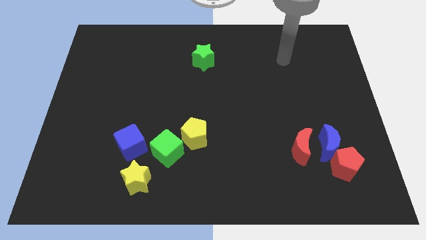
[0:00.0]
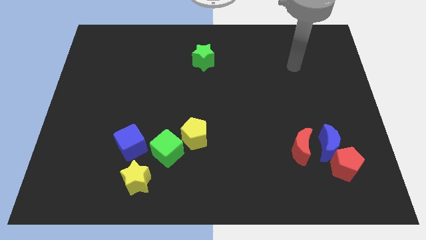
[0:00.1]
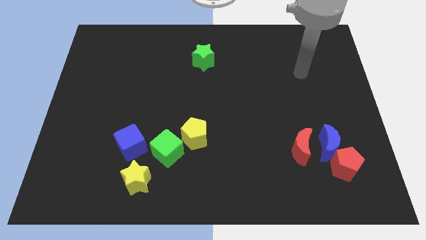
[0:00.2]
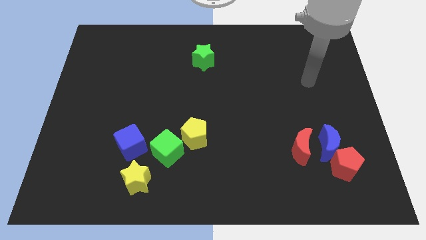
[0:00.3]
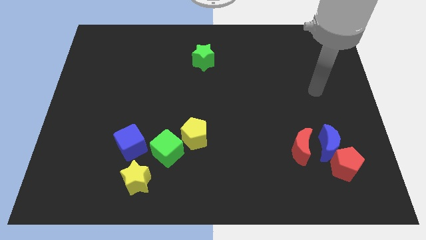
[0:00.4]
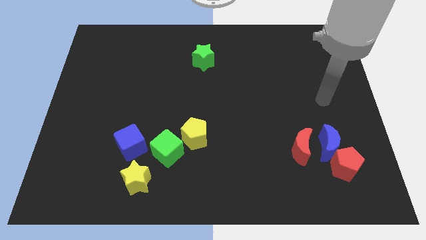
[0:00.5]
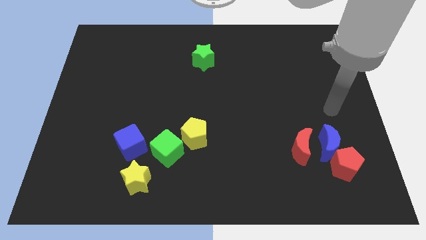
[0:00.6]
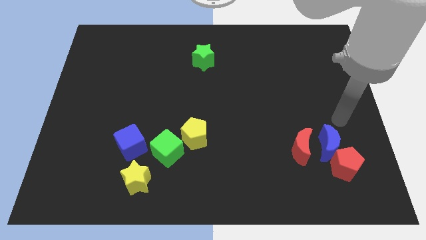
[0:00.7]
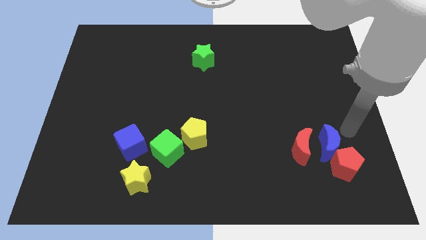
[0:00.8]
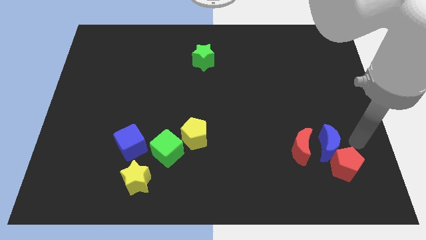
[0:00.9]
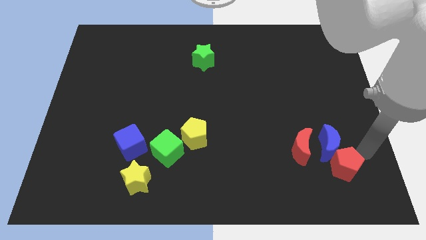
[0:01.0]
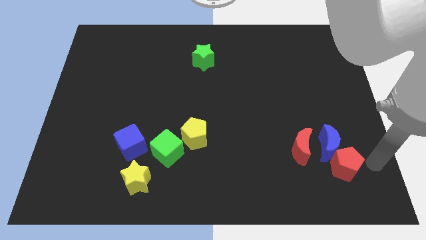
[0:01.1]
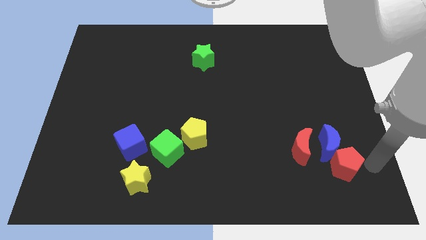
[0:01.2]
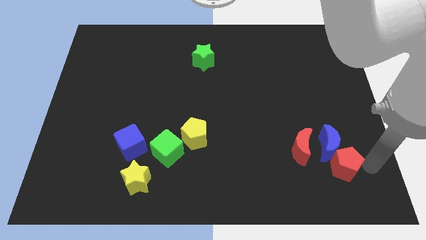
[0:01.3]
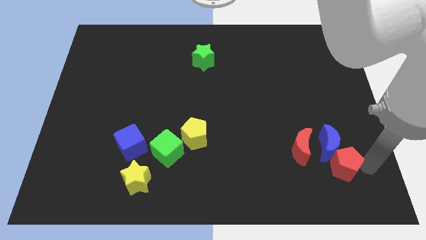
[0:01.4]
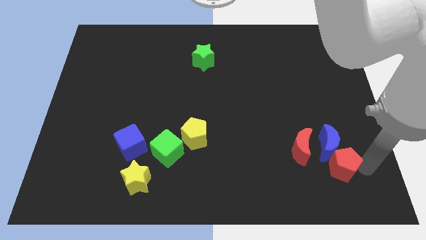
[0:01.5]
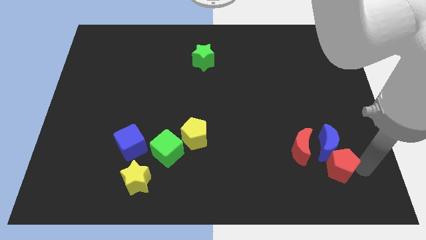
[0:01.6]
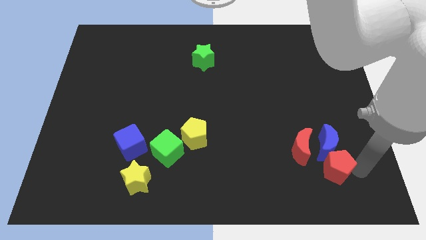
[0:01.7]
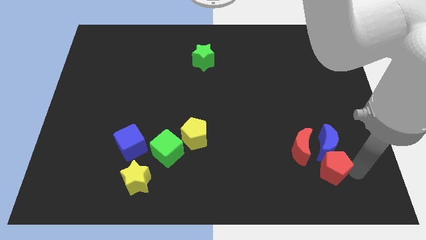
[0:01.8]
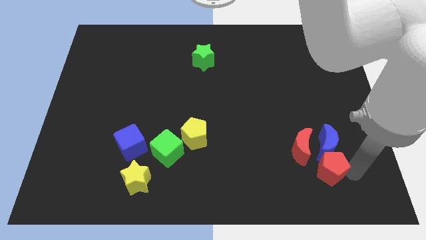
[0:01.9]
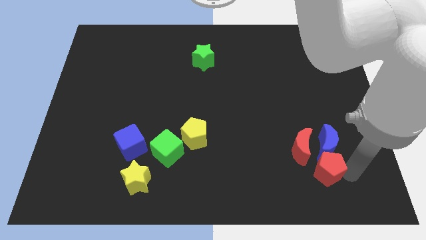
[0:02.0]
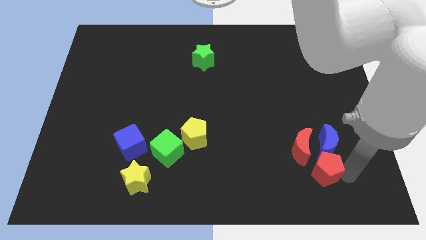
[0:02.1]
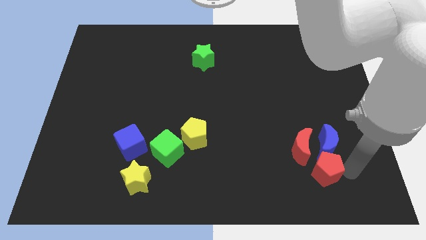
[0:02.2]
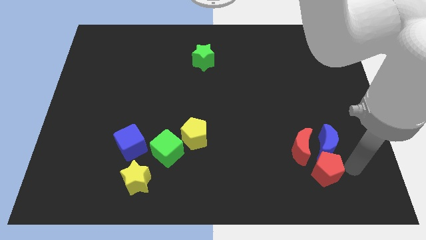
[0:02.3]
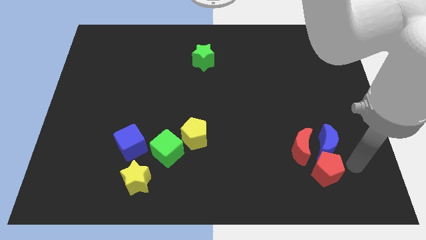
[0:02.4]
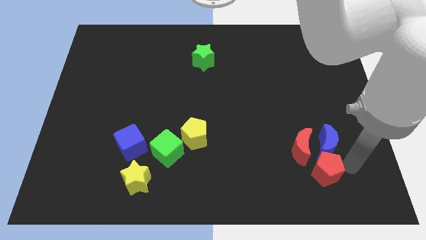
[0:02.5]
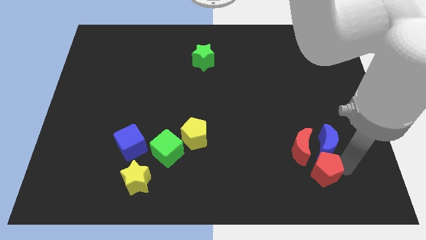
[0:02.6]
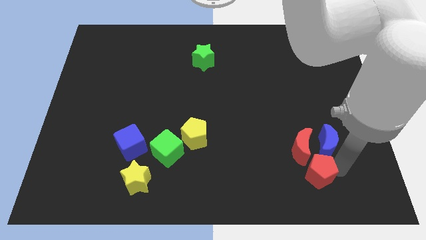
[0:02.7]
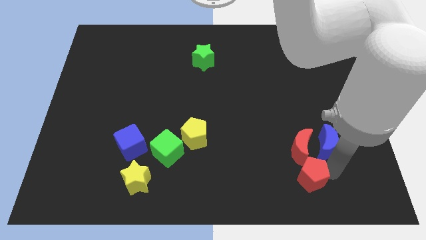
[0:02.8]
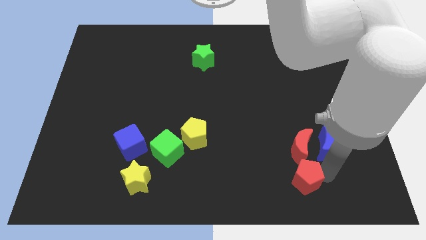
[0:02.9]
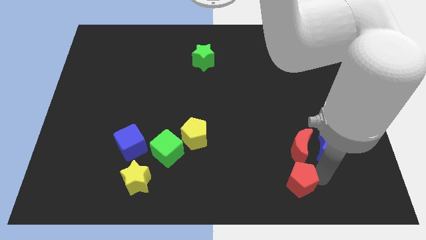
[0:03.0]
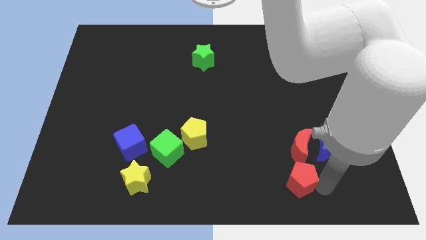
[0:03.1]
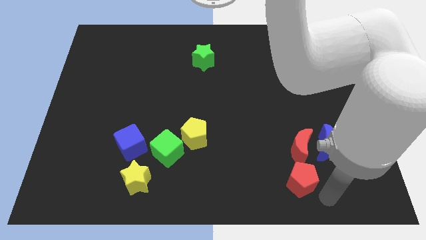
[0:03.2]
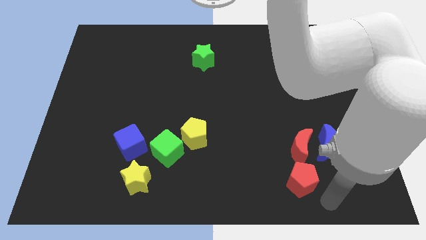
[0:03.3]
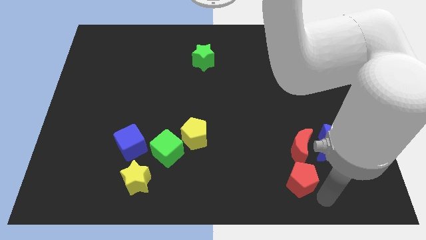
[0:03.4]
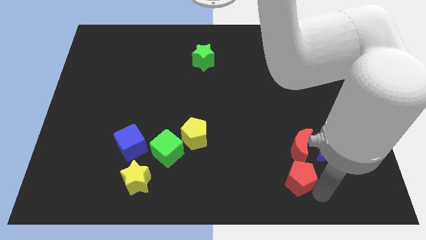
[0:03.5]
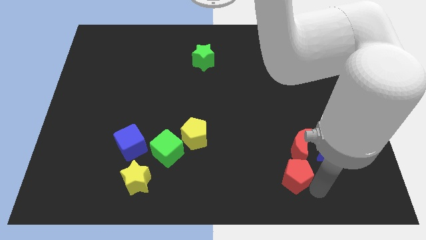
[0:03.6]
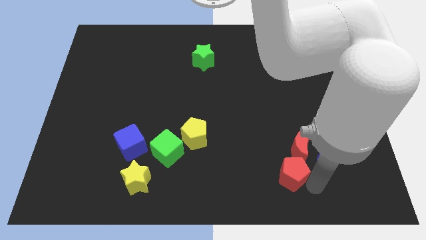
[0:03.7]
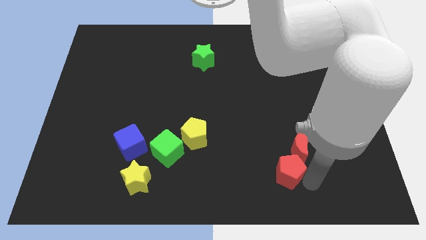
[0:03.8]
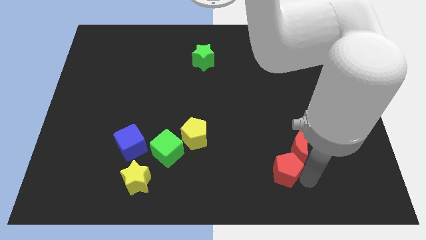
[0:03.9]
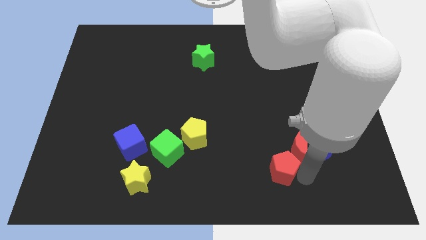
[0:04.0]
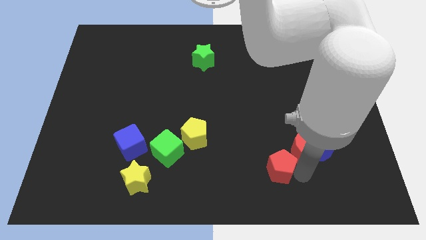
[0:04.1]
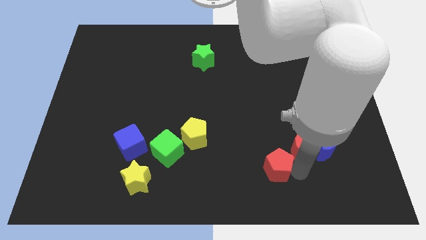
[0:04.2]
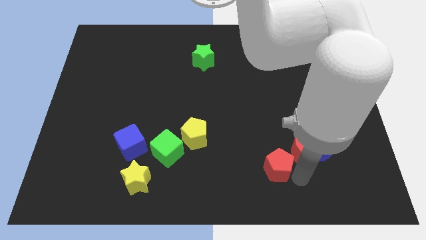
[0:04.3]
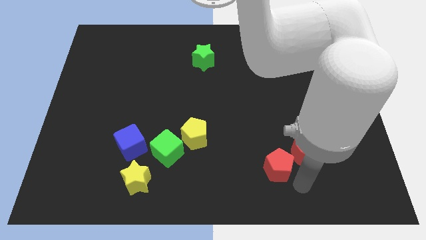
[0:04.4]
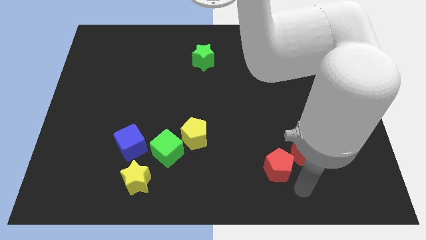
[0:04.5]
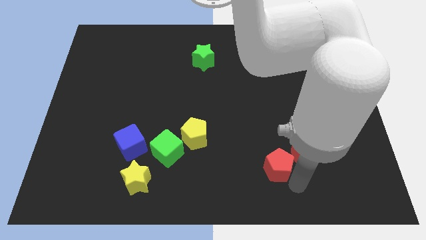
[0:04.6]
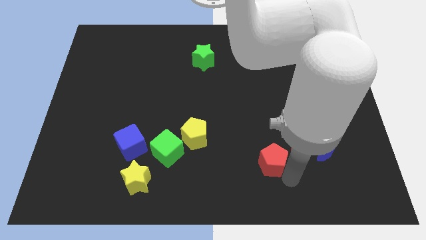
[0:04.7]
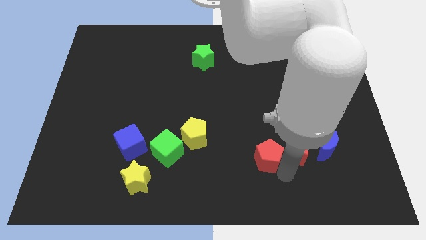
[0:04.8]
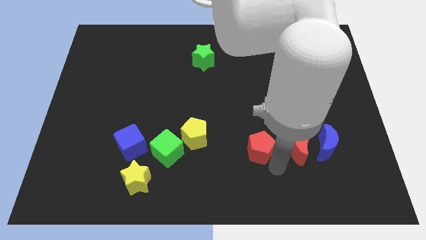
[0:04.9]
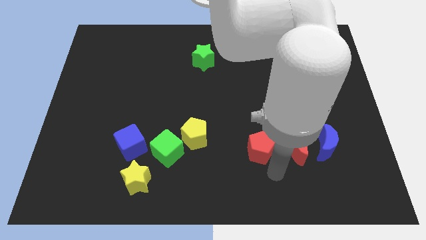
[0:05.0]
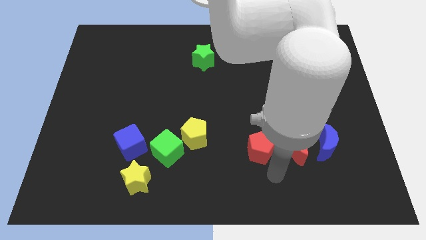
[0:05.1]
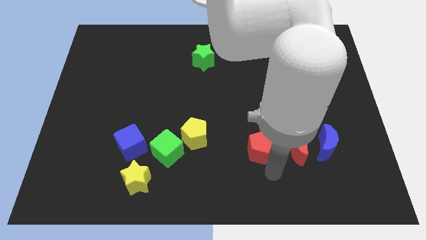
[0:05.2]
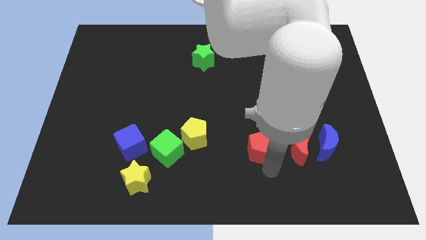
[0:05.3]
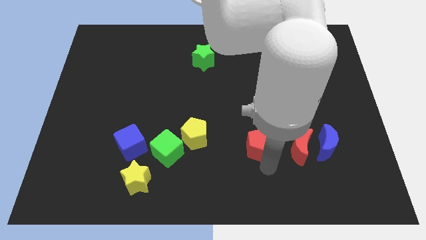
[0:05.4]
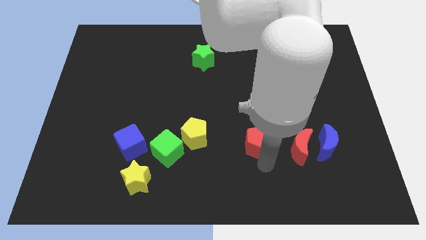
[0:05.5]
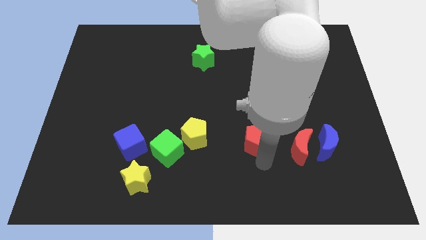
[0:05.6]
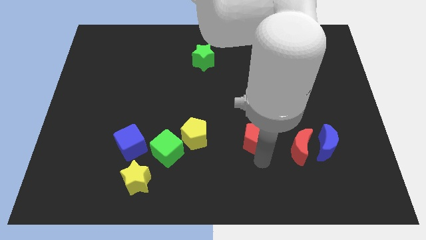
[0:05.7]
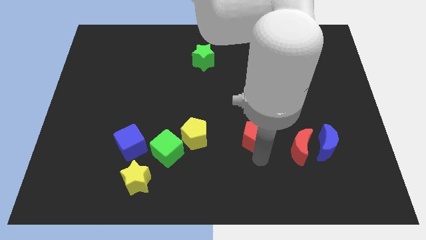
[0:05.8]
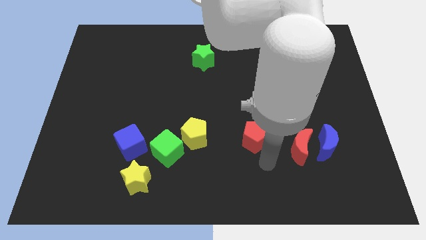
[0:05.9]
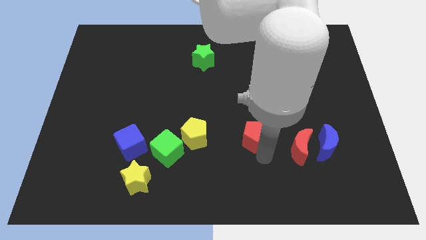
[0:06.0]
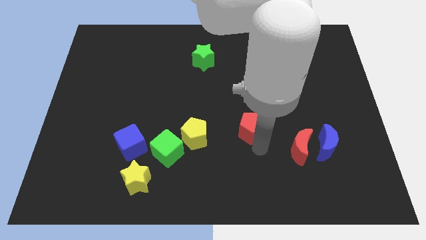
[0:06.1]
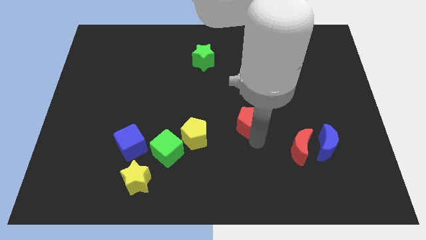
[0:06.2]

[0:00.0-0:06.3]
push the red pentagon up and then to the left

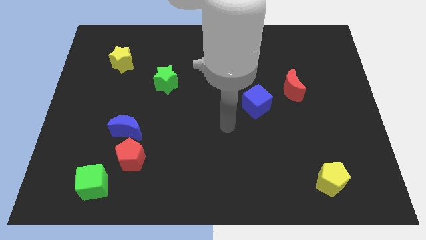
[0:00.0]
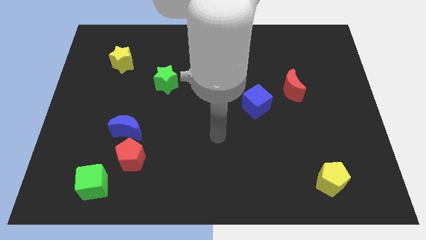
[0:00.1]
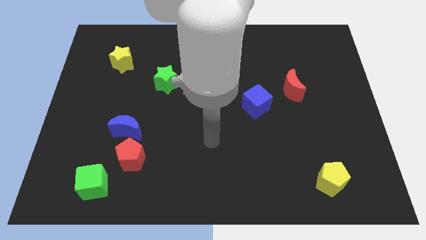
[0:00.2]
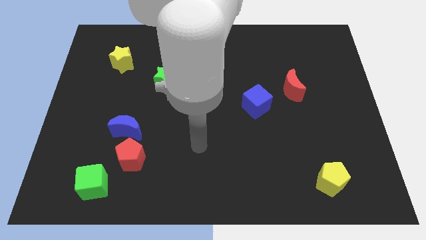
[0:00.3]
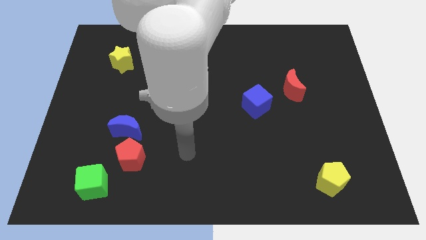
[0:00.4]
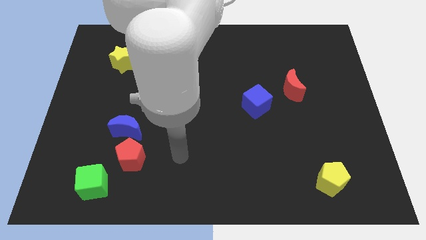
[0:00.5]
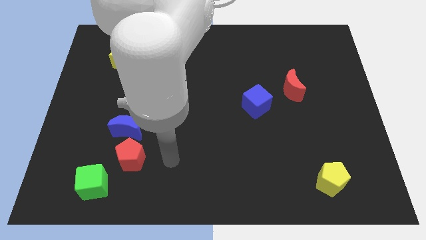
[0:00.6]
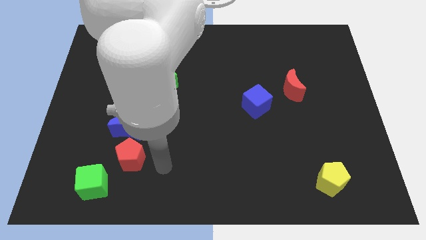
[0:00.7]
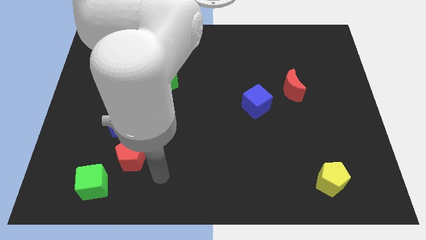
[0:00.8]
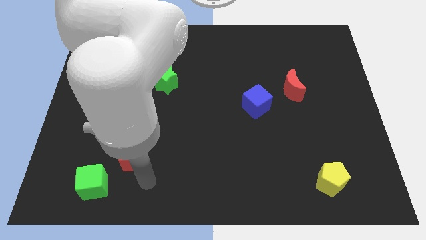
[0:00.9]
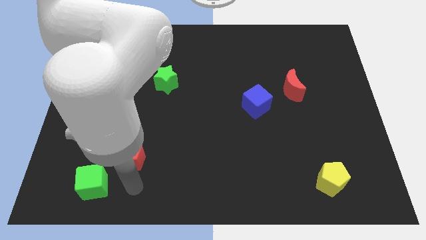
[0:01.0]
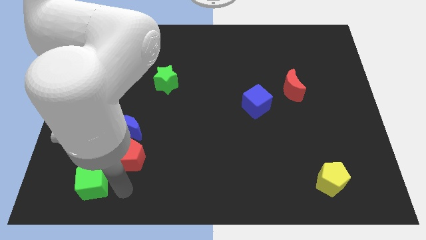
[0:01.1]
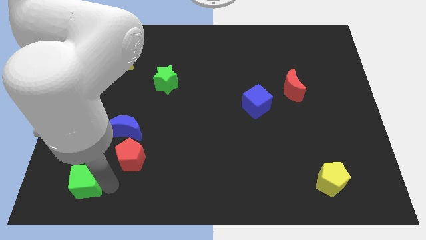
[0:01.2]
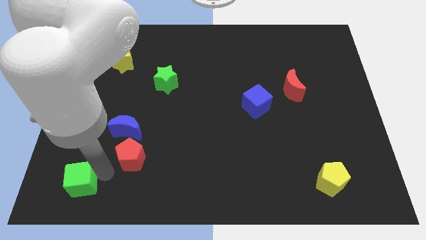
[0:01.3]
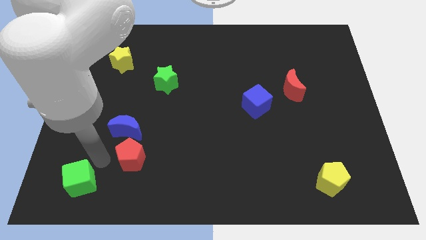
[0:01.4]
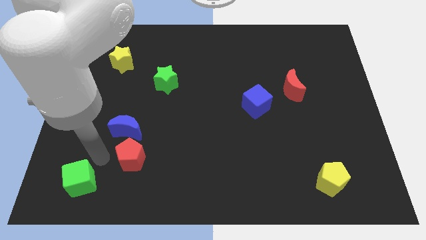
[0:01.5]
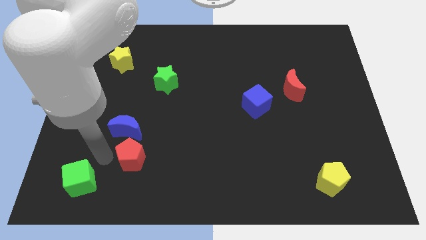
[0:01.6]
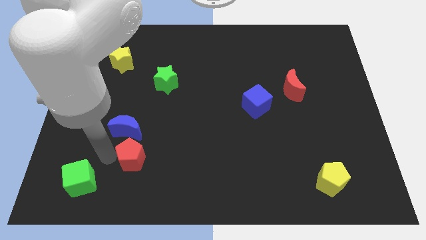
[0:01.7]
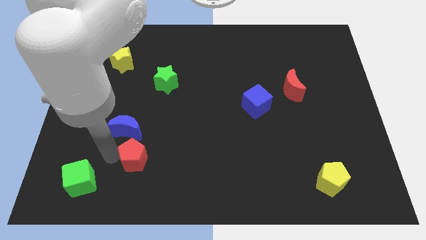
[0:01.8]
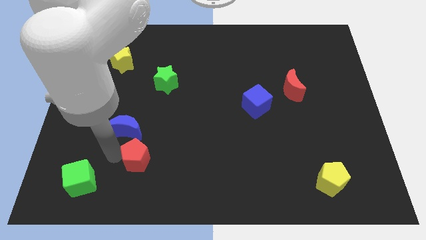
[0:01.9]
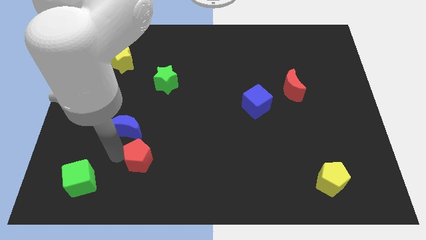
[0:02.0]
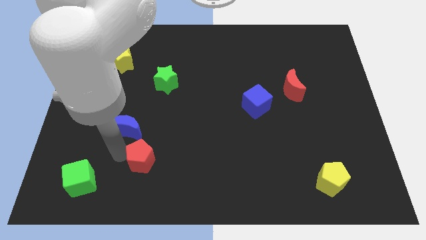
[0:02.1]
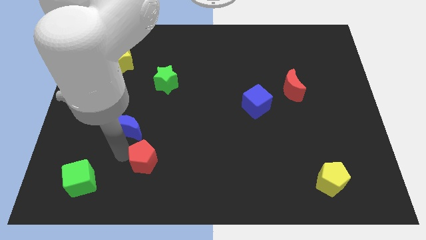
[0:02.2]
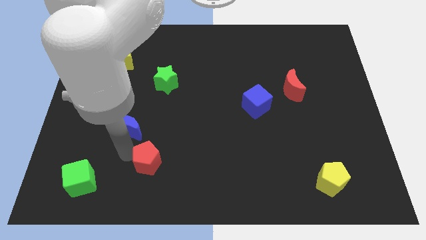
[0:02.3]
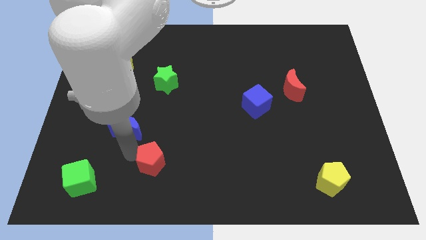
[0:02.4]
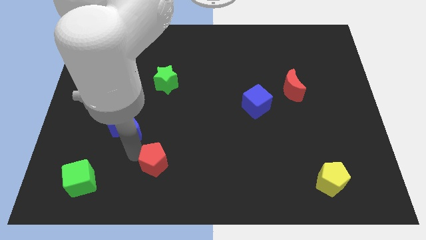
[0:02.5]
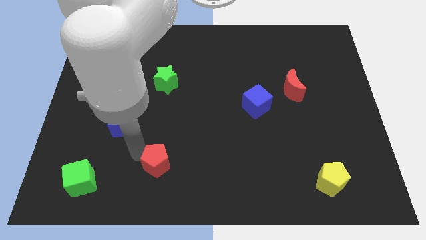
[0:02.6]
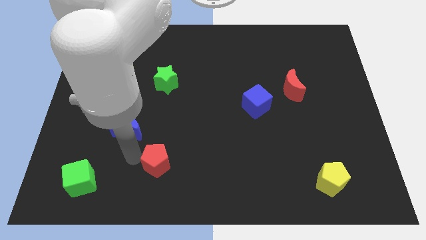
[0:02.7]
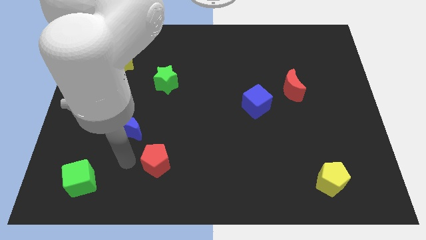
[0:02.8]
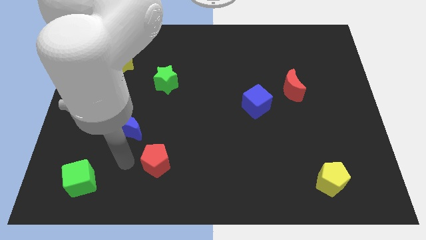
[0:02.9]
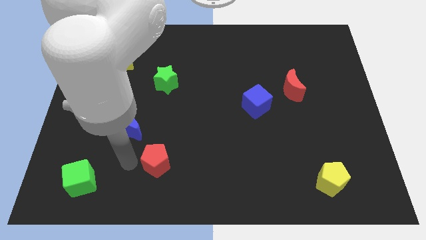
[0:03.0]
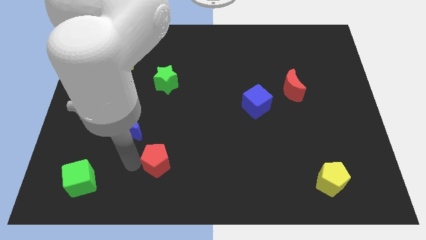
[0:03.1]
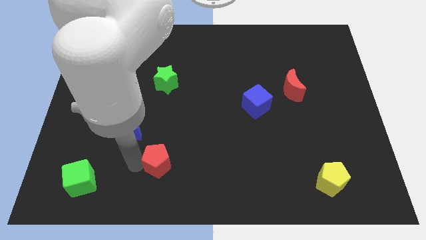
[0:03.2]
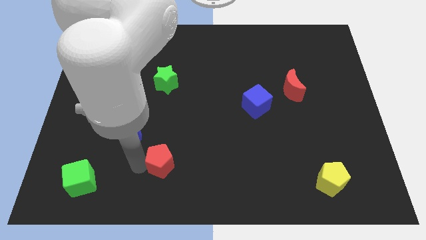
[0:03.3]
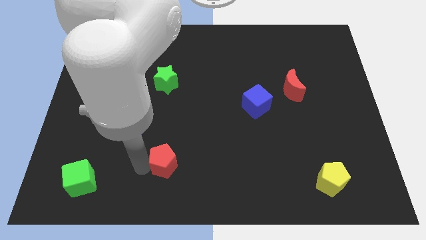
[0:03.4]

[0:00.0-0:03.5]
slightly push the red pentagon to the right
